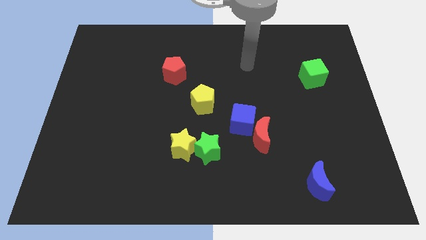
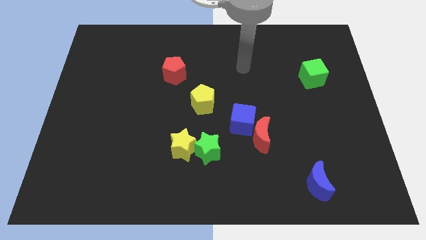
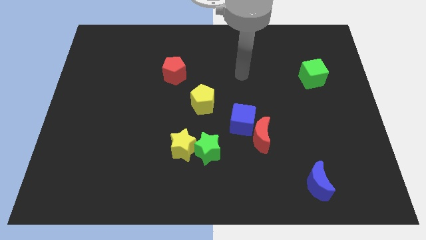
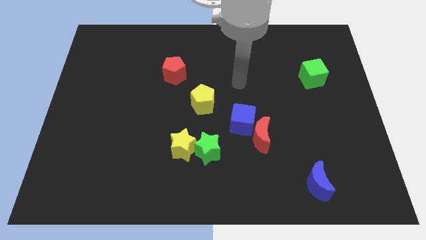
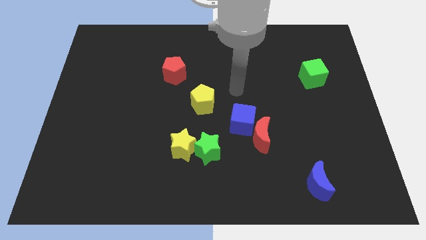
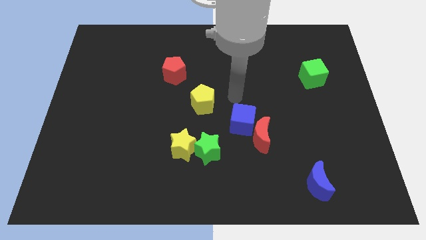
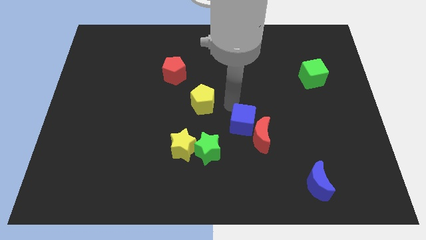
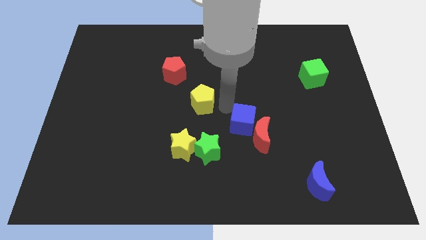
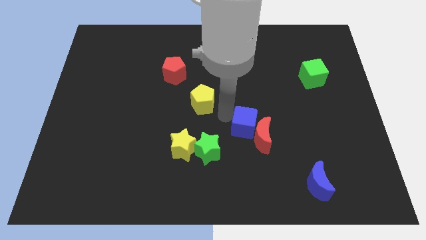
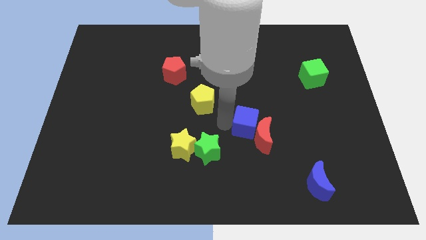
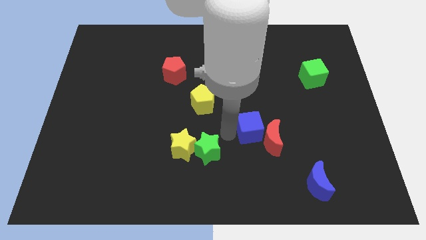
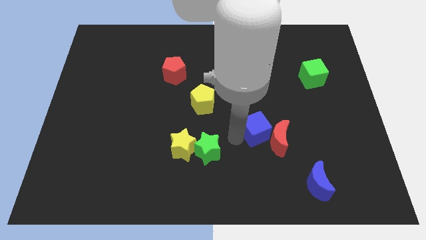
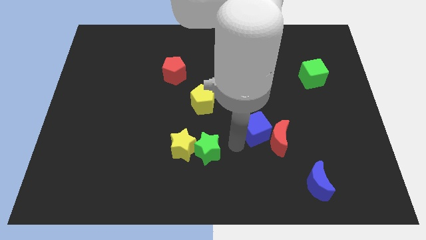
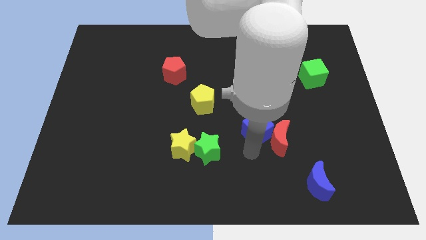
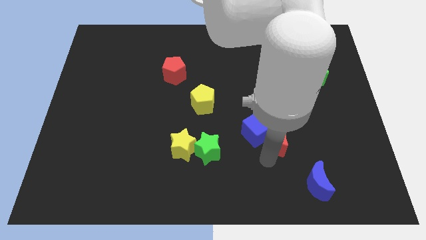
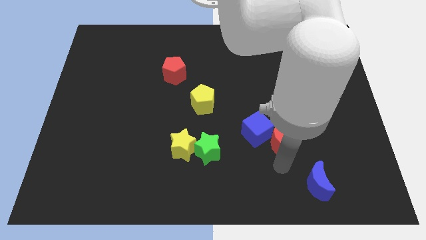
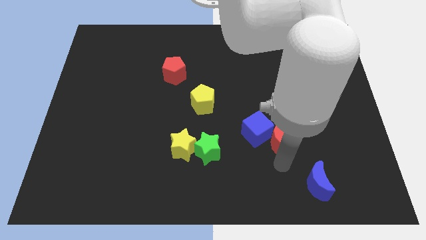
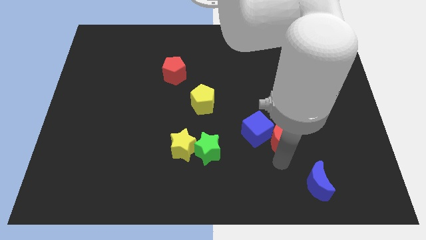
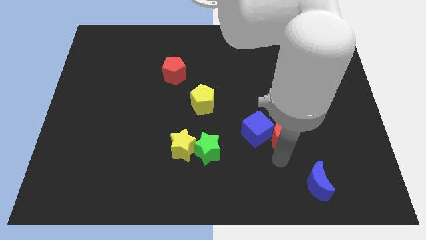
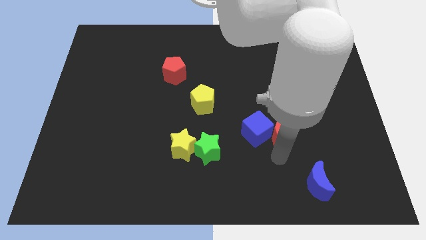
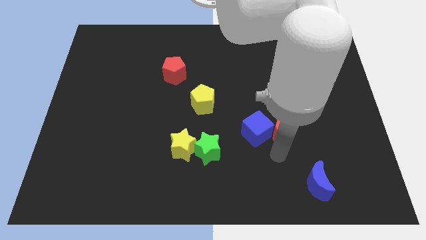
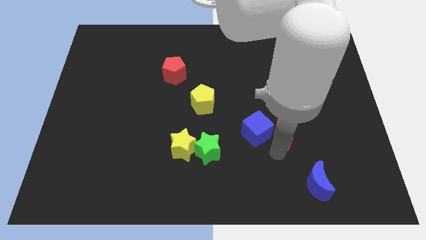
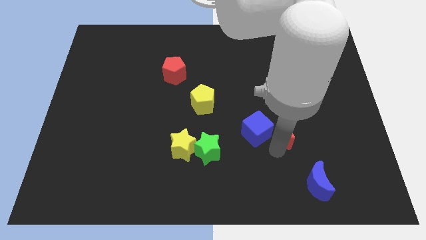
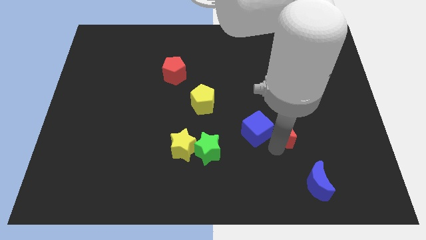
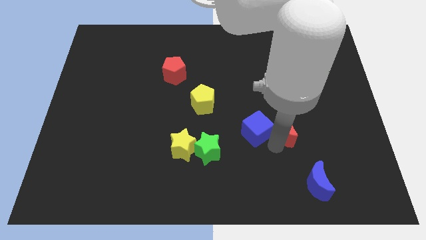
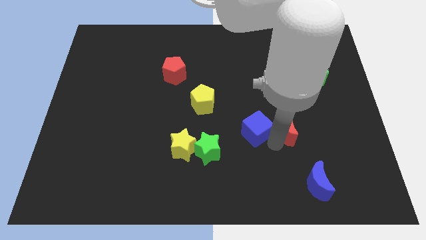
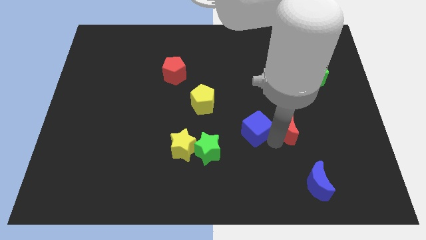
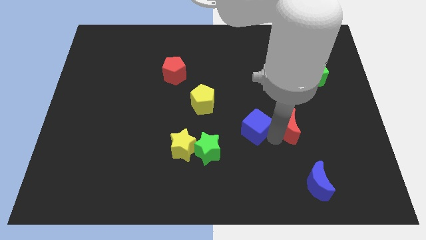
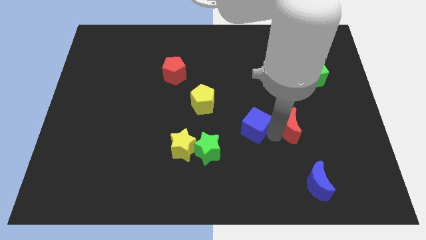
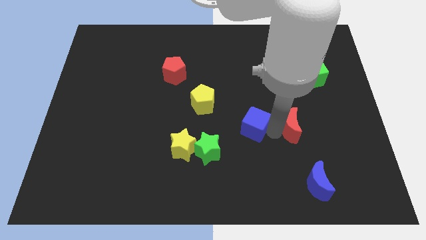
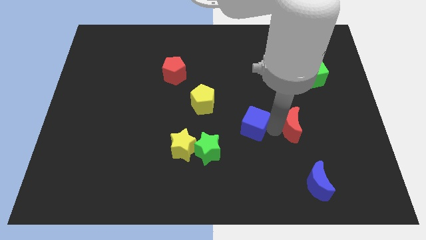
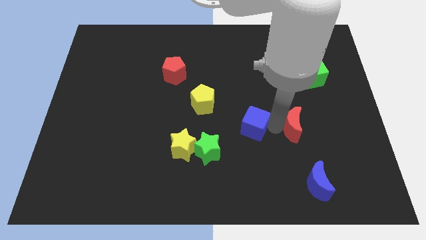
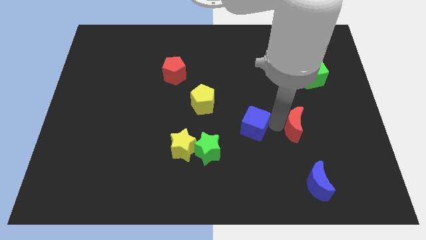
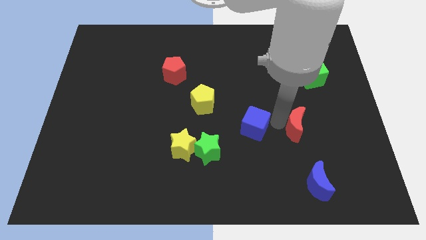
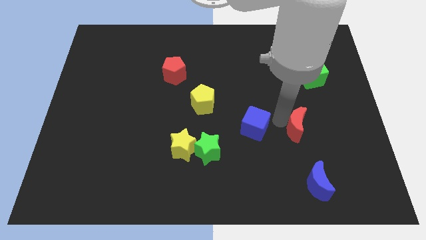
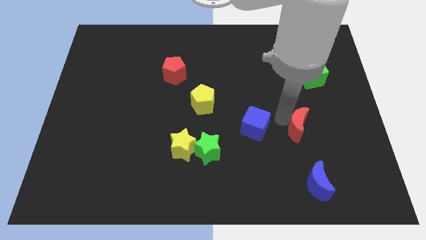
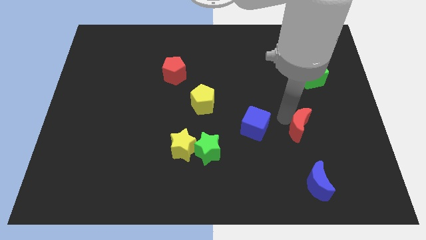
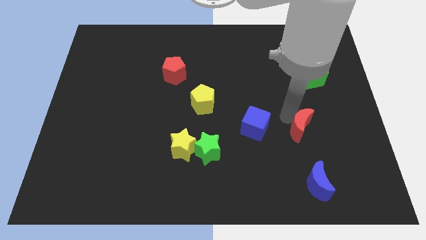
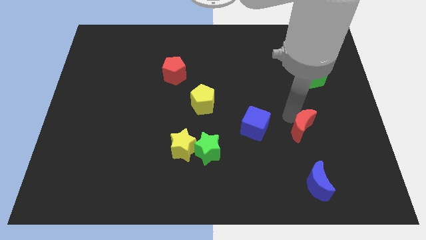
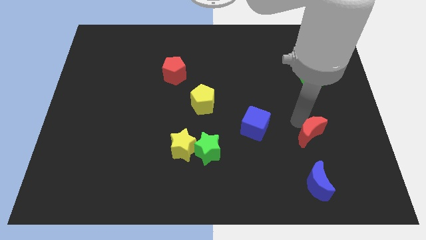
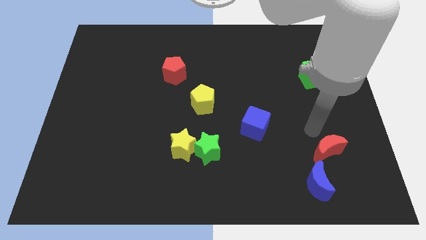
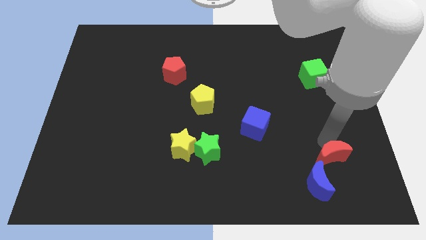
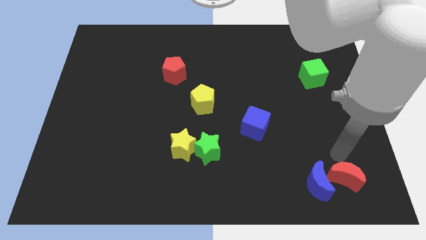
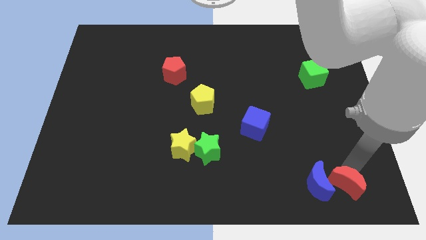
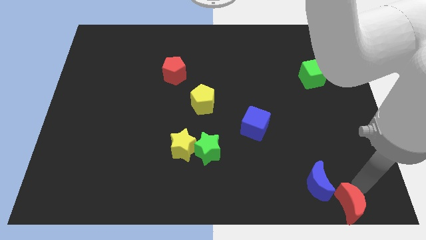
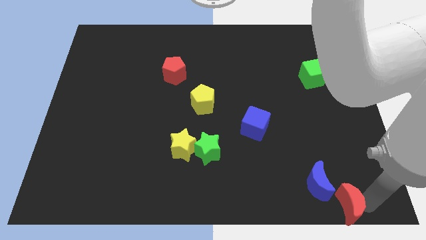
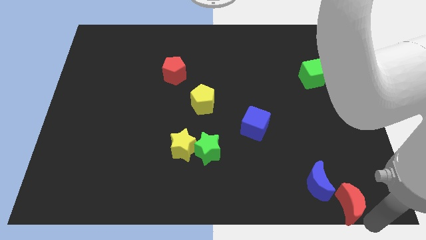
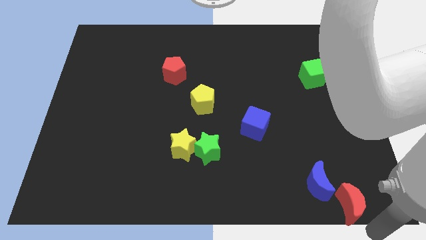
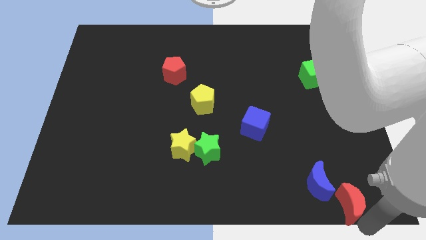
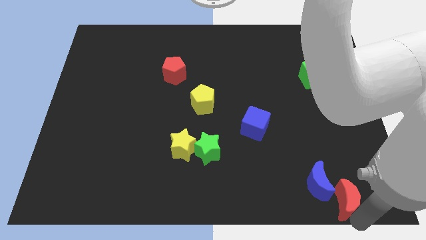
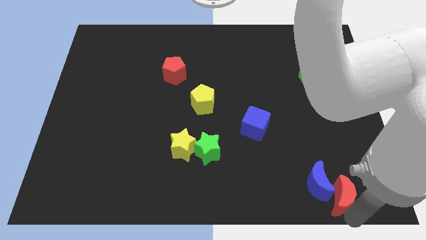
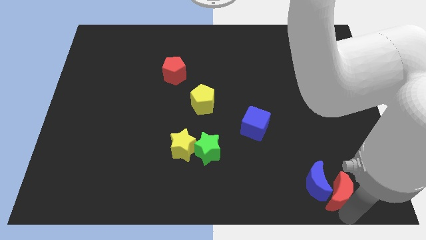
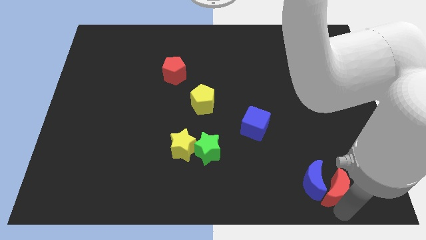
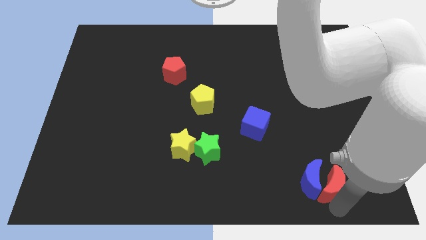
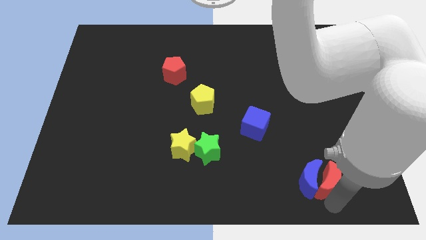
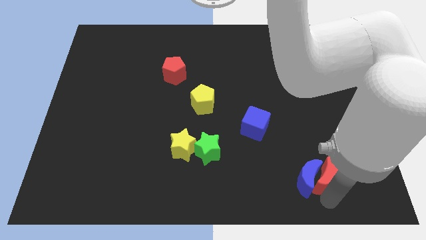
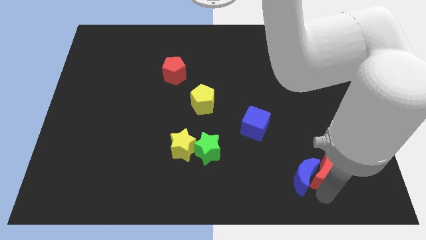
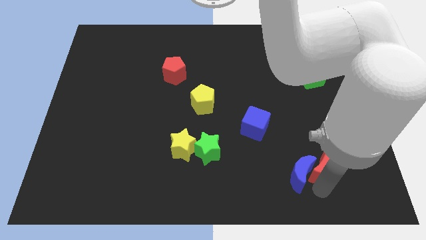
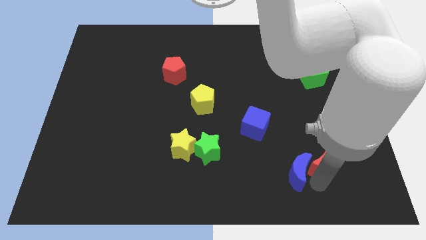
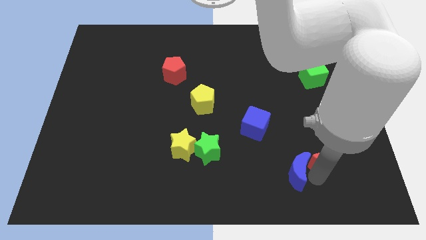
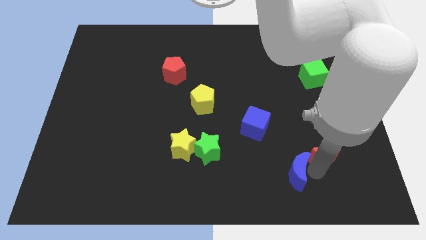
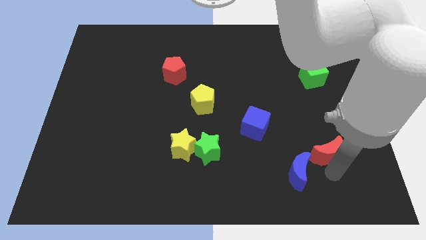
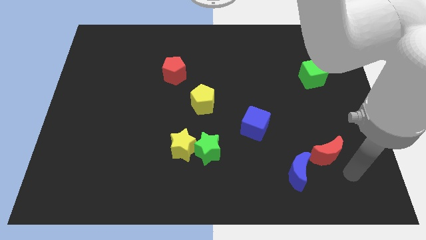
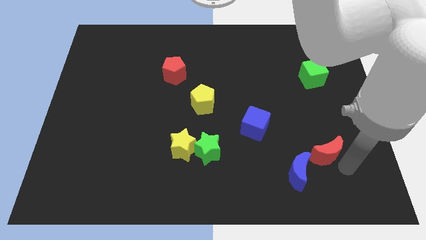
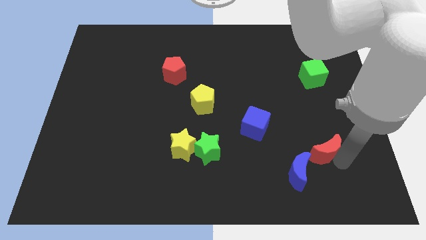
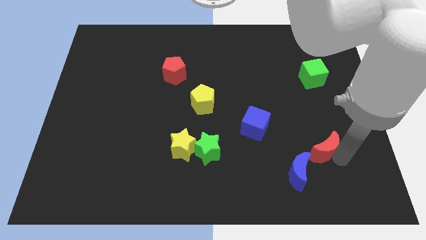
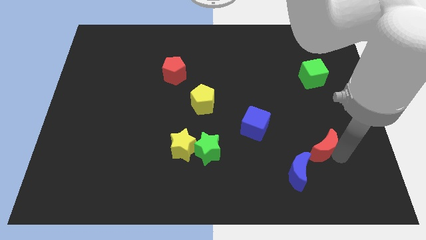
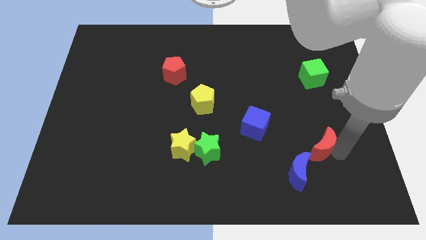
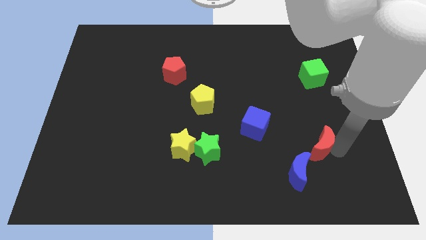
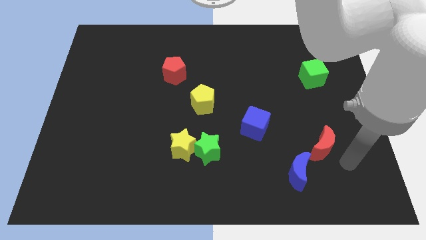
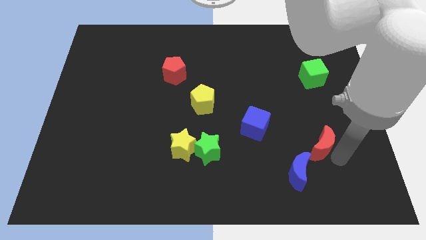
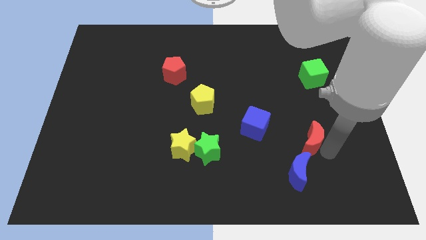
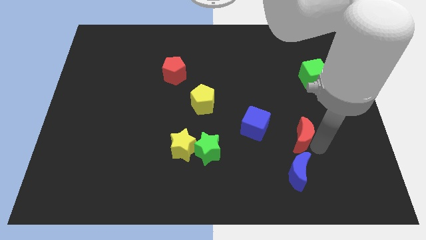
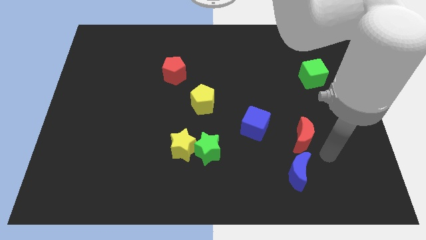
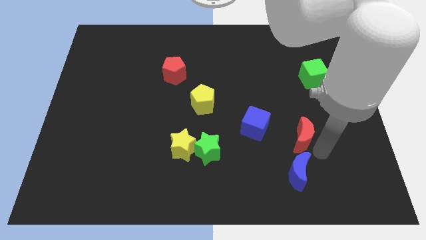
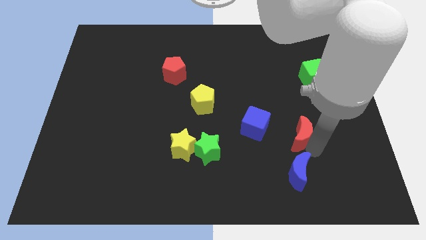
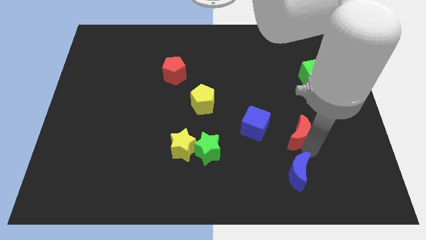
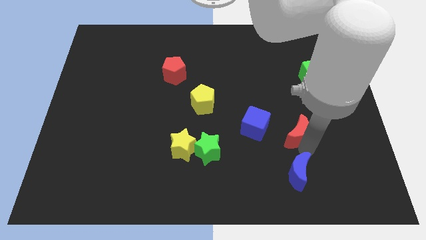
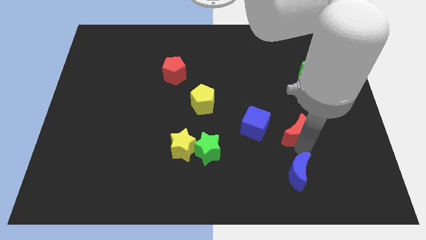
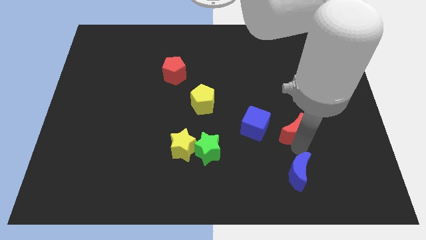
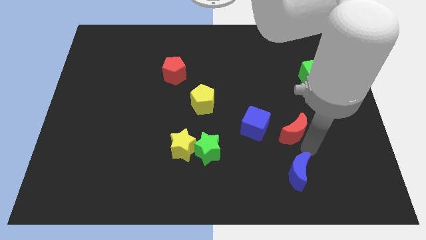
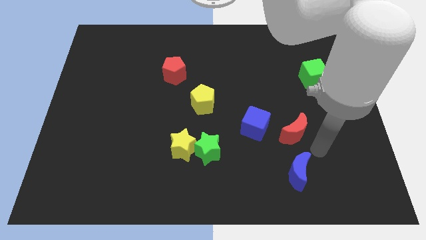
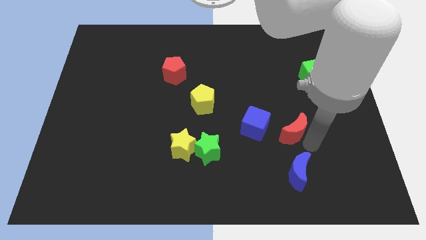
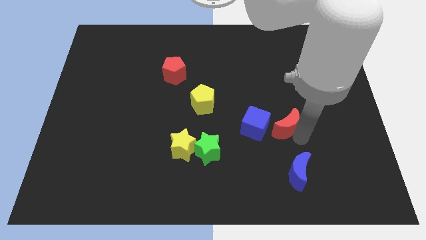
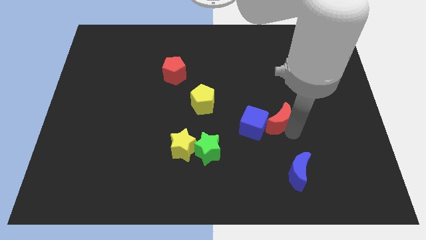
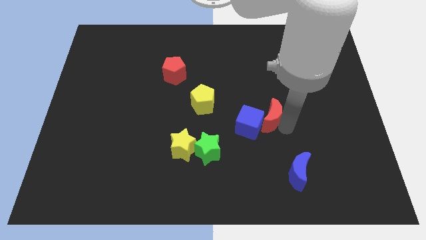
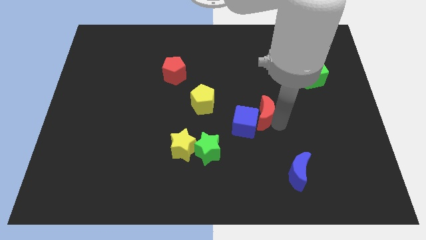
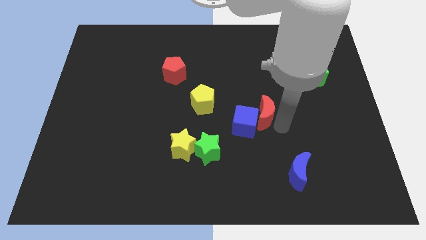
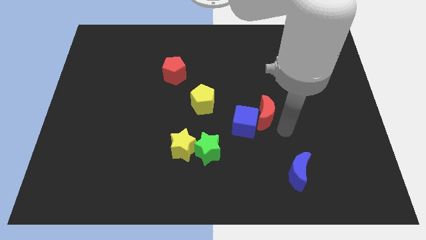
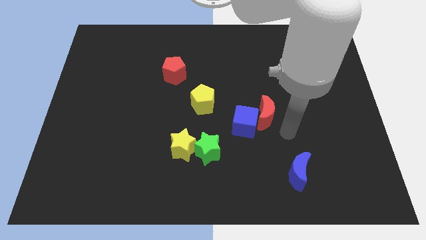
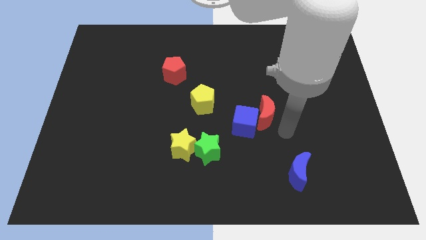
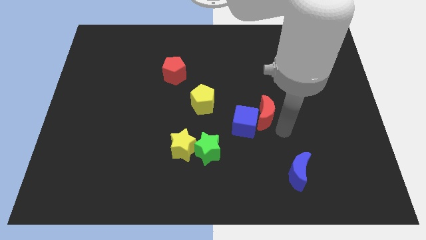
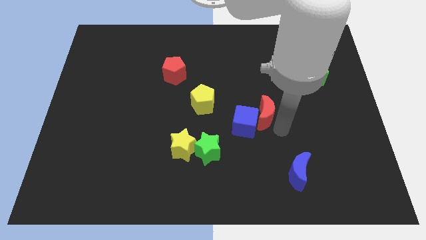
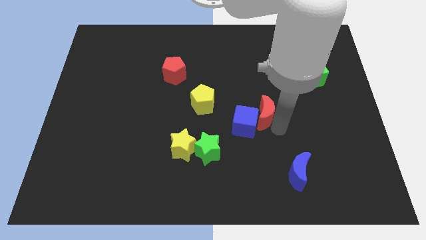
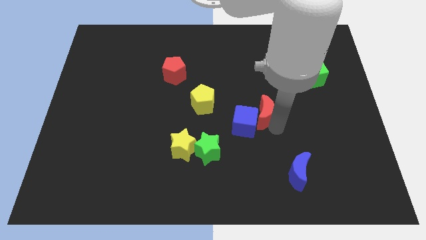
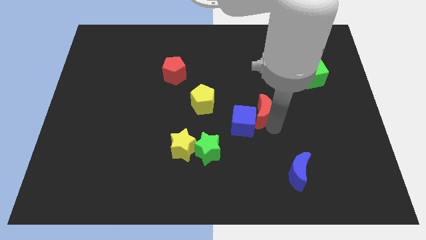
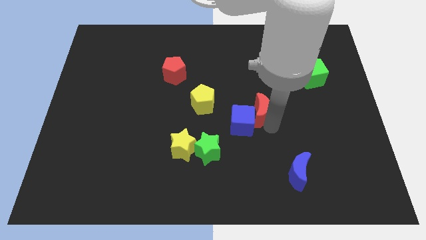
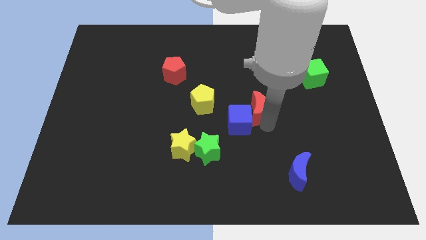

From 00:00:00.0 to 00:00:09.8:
move the red moon above the blue cube
